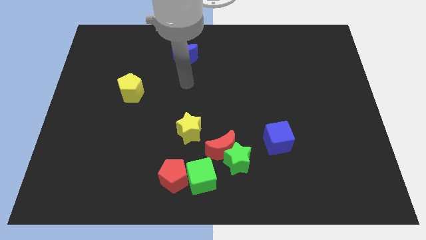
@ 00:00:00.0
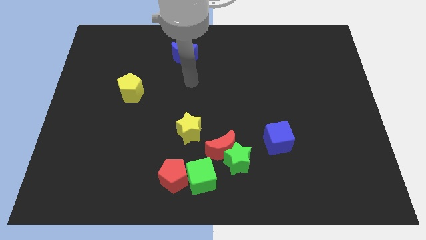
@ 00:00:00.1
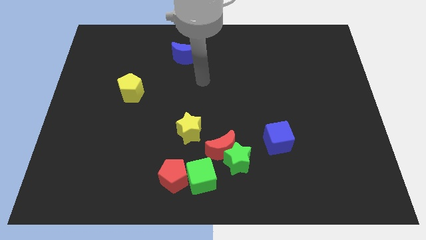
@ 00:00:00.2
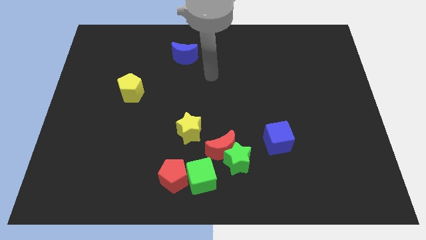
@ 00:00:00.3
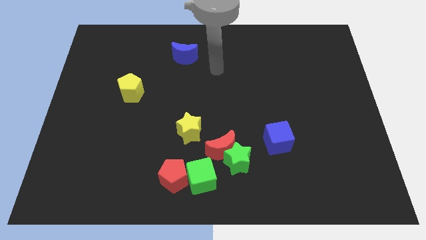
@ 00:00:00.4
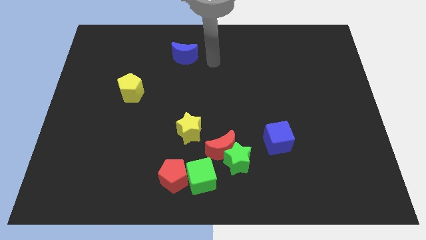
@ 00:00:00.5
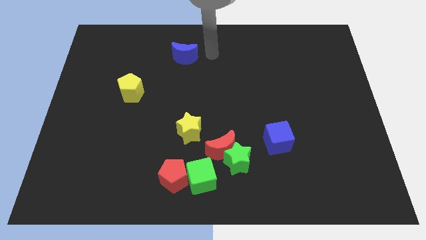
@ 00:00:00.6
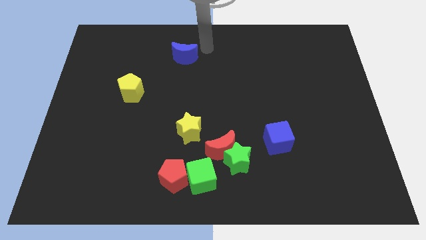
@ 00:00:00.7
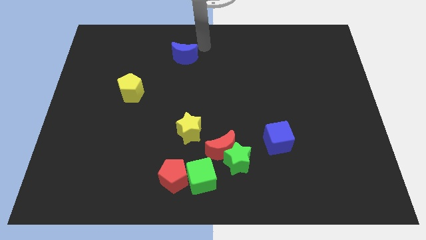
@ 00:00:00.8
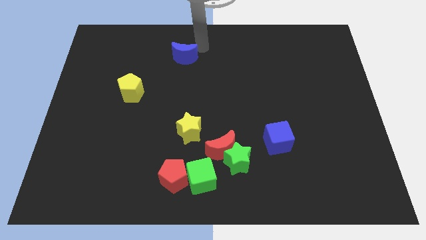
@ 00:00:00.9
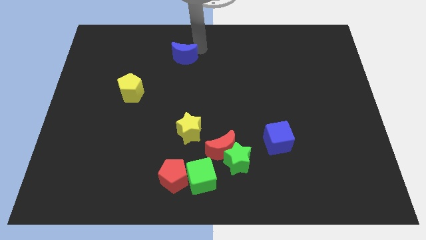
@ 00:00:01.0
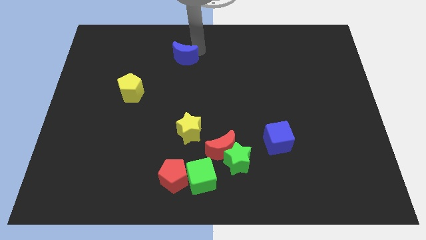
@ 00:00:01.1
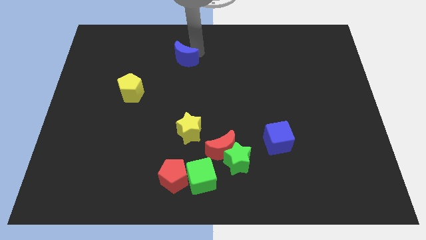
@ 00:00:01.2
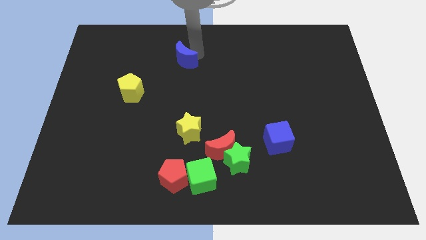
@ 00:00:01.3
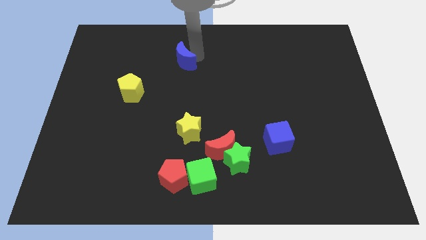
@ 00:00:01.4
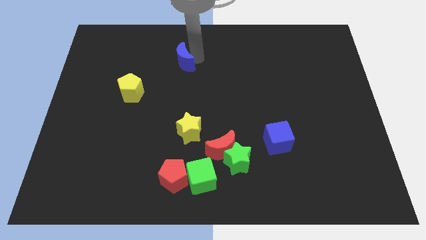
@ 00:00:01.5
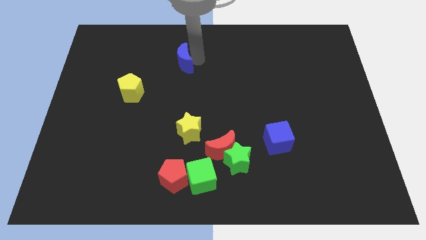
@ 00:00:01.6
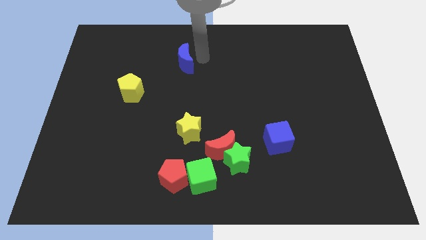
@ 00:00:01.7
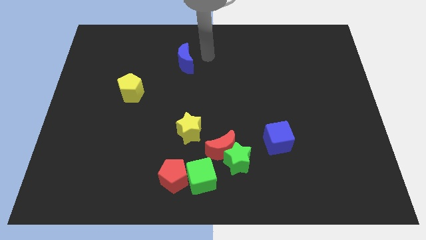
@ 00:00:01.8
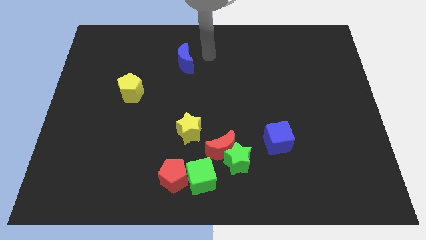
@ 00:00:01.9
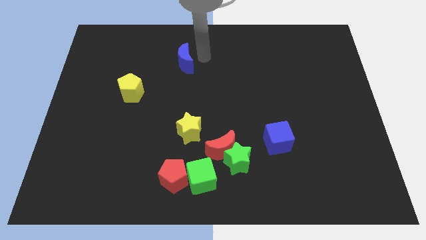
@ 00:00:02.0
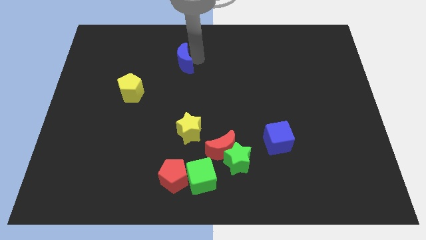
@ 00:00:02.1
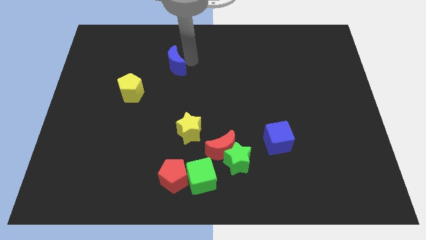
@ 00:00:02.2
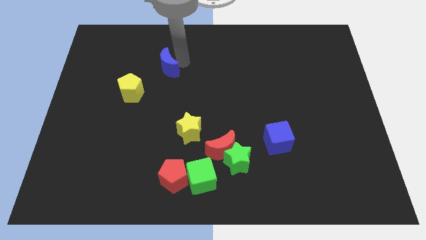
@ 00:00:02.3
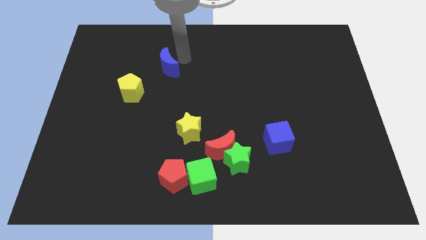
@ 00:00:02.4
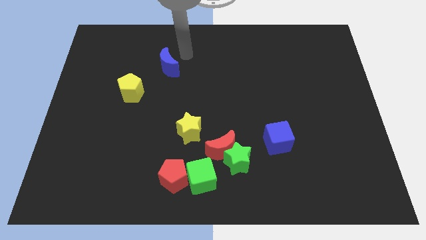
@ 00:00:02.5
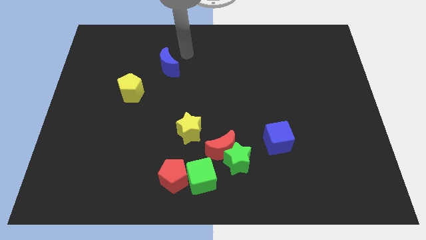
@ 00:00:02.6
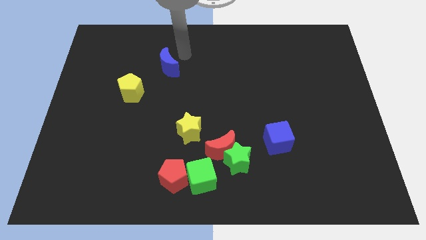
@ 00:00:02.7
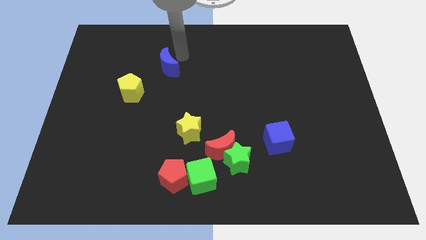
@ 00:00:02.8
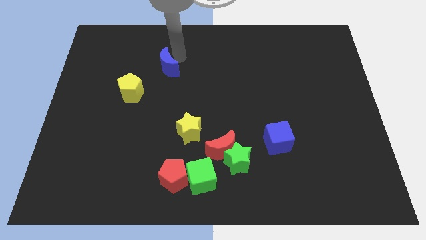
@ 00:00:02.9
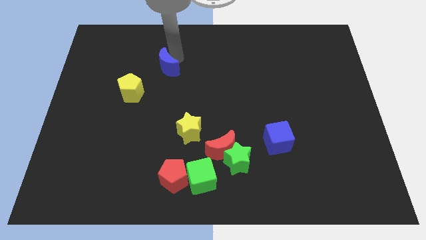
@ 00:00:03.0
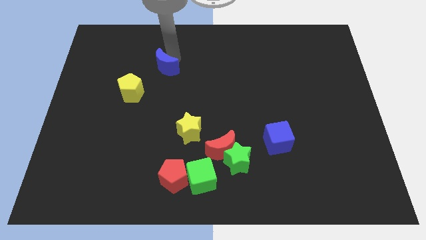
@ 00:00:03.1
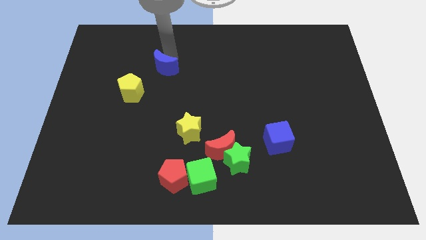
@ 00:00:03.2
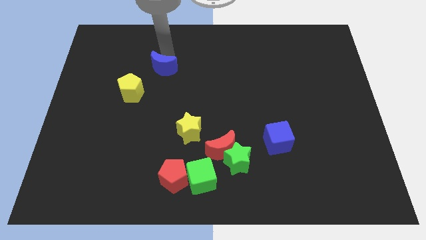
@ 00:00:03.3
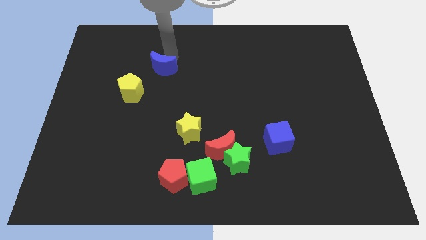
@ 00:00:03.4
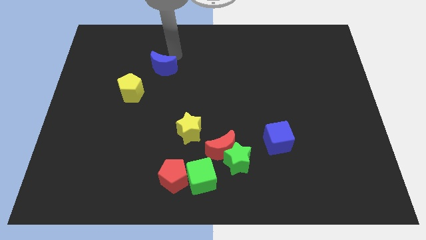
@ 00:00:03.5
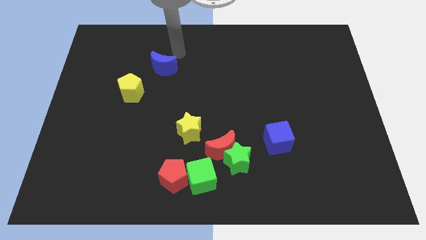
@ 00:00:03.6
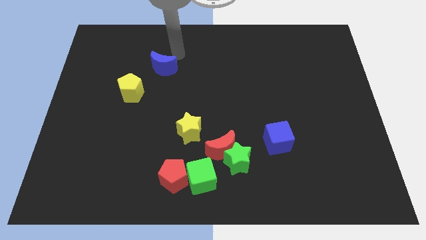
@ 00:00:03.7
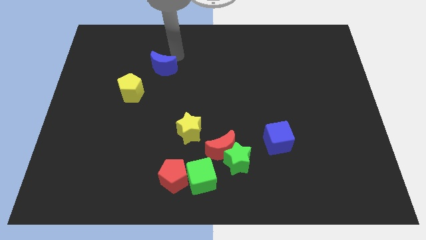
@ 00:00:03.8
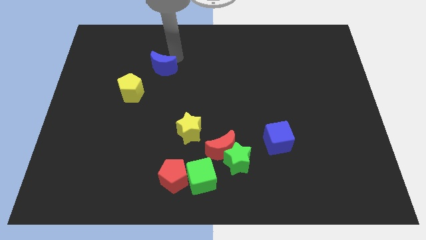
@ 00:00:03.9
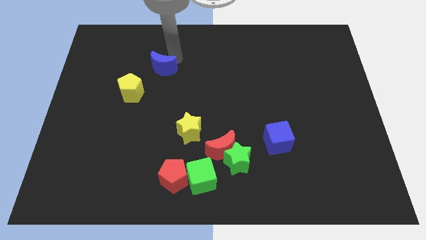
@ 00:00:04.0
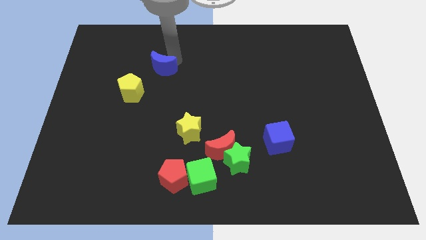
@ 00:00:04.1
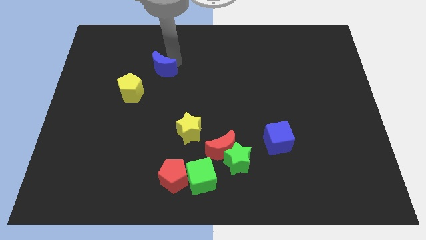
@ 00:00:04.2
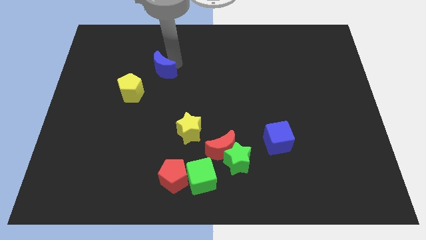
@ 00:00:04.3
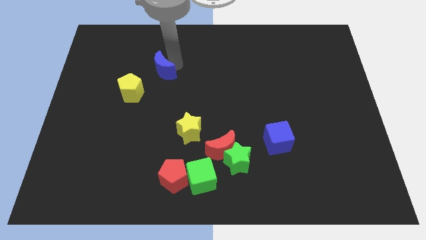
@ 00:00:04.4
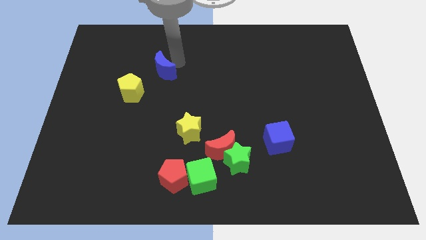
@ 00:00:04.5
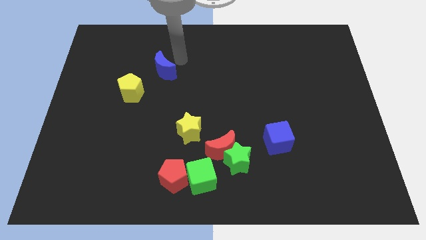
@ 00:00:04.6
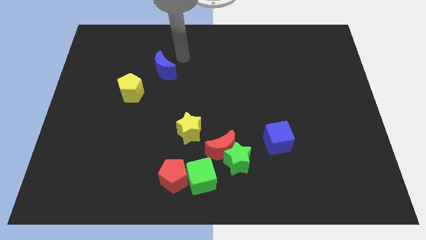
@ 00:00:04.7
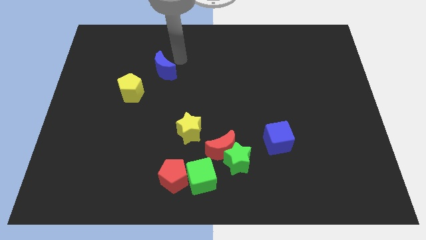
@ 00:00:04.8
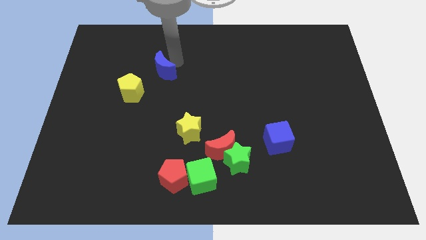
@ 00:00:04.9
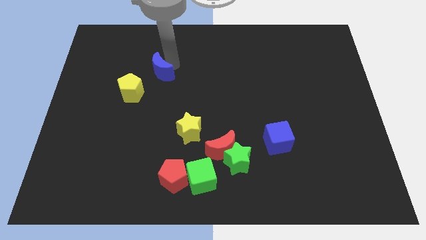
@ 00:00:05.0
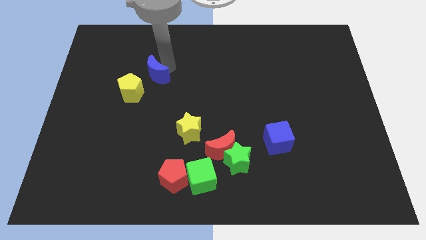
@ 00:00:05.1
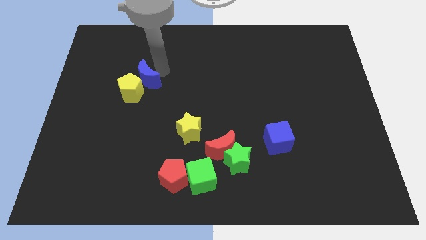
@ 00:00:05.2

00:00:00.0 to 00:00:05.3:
slide the blue moon close to the yellow pentagon

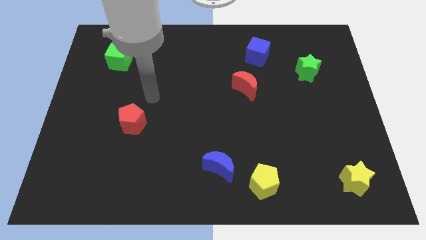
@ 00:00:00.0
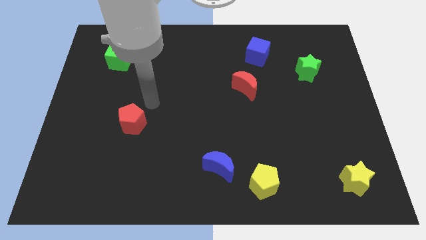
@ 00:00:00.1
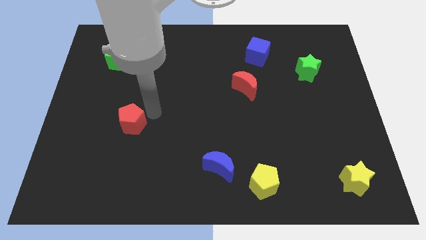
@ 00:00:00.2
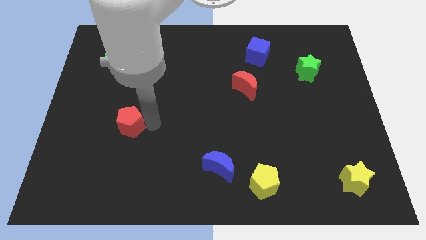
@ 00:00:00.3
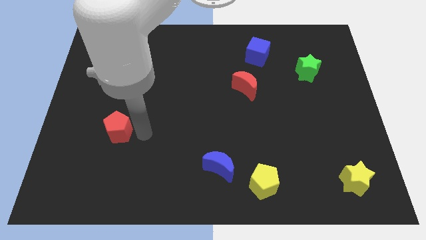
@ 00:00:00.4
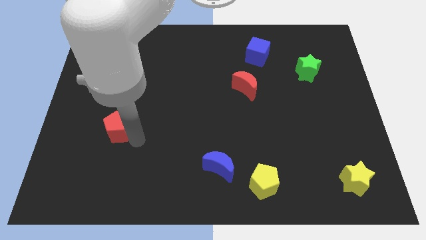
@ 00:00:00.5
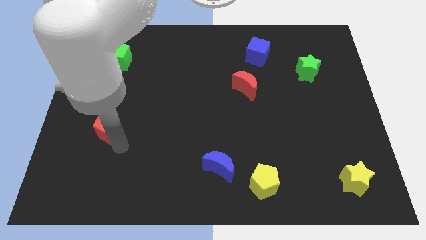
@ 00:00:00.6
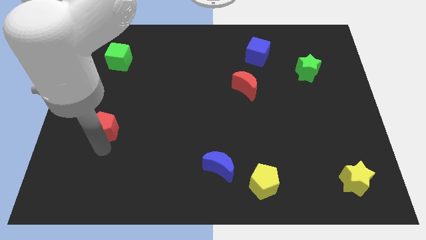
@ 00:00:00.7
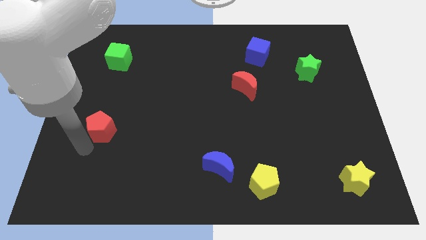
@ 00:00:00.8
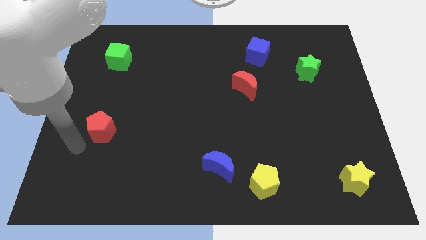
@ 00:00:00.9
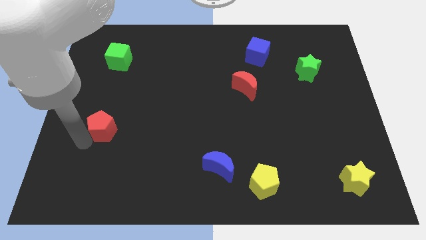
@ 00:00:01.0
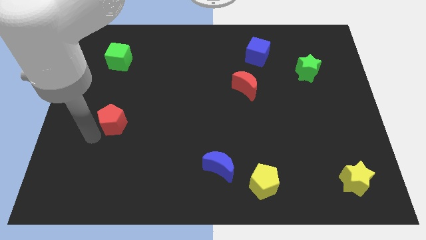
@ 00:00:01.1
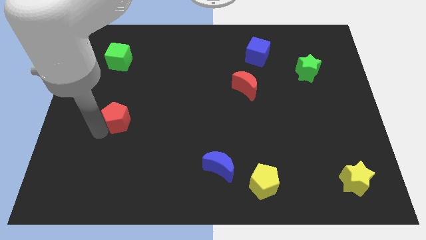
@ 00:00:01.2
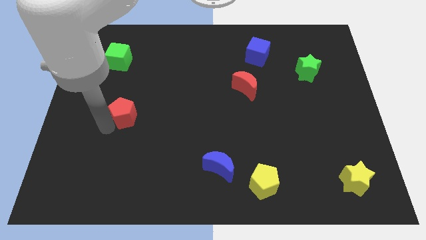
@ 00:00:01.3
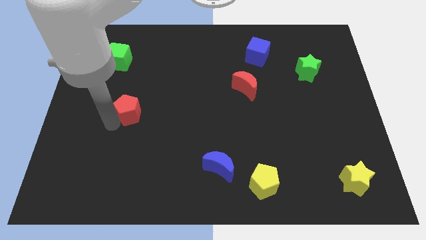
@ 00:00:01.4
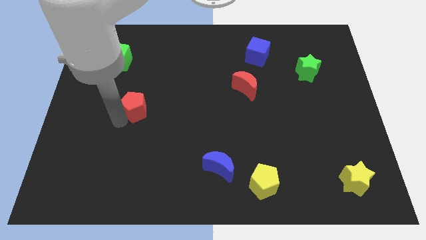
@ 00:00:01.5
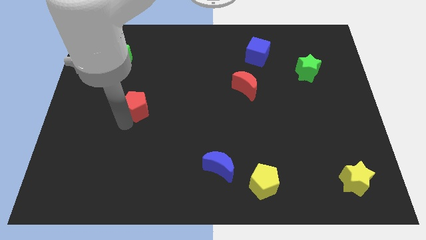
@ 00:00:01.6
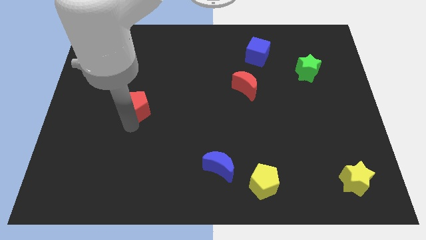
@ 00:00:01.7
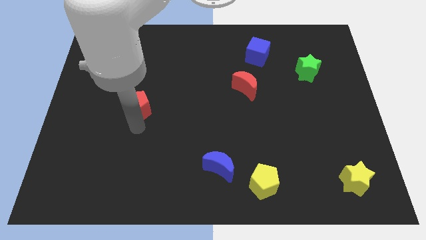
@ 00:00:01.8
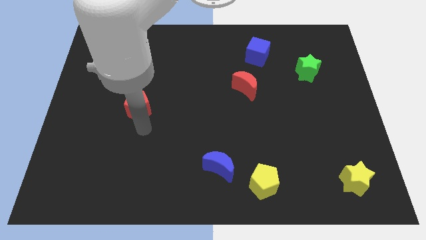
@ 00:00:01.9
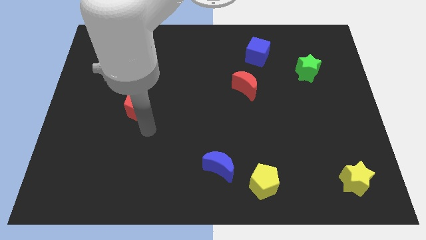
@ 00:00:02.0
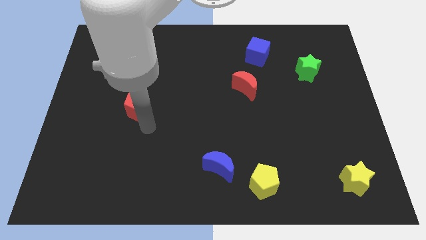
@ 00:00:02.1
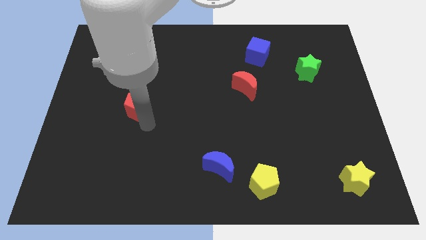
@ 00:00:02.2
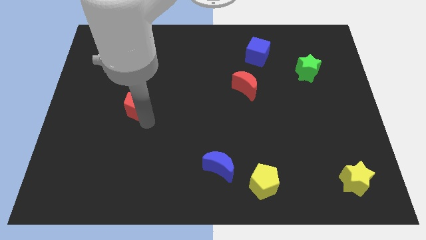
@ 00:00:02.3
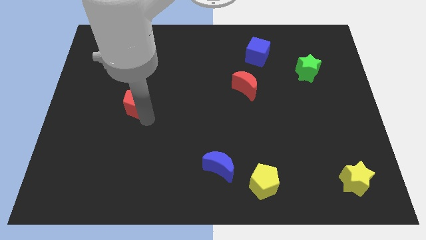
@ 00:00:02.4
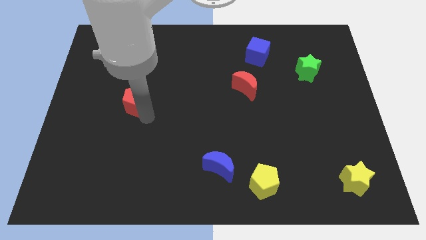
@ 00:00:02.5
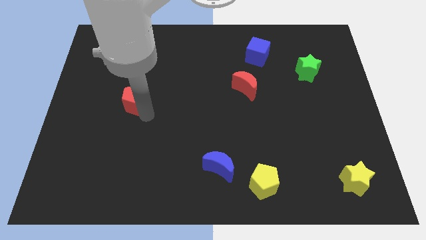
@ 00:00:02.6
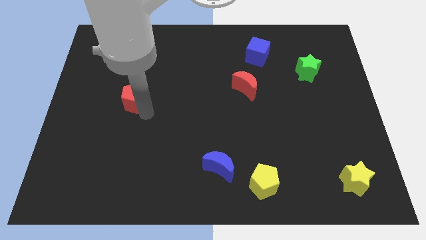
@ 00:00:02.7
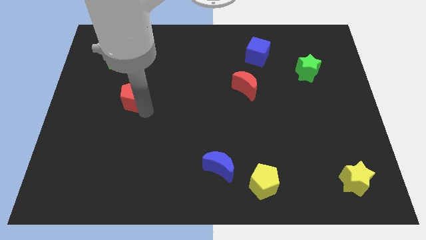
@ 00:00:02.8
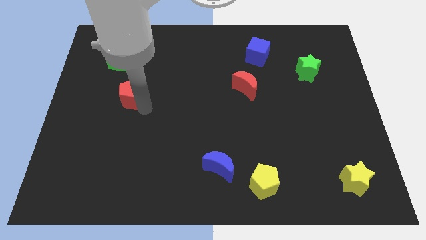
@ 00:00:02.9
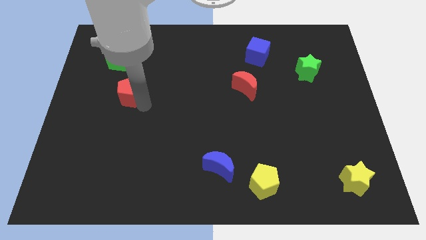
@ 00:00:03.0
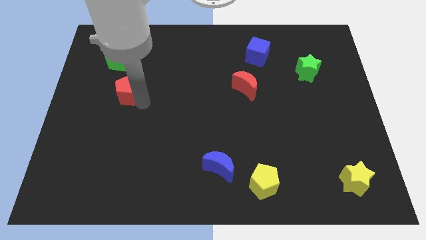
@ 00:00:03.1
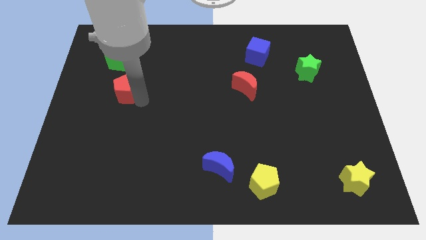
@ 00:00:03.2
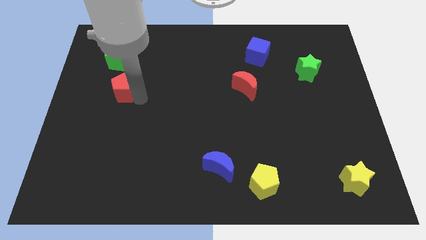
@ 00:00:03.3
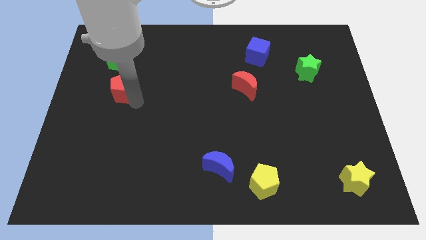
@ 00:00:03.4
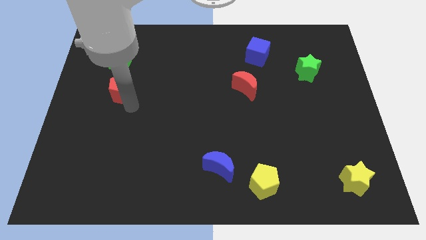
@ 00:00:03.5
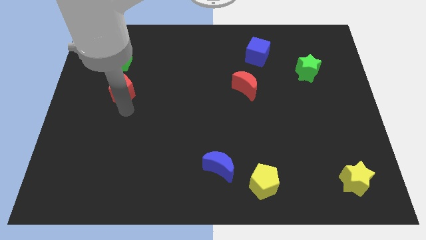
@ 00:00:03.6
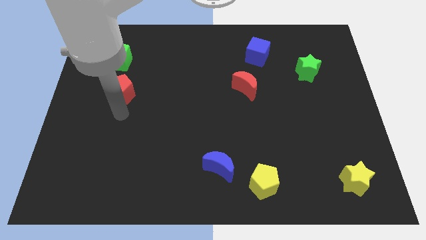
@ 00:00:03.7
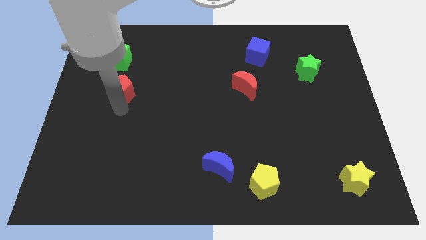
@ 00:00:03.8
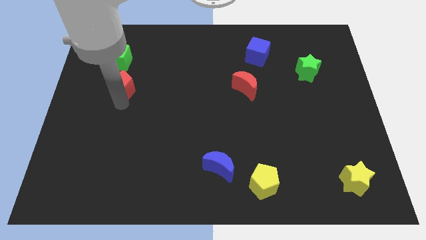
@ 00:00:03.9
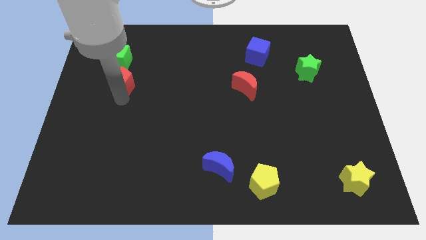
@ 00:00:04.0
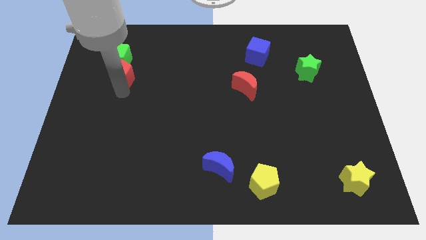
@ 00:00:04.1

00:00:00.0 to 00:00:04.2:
put the red pentagon close to the green cube
